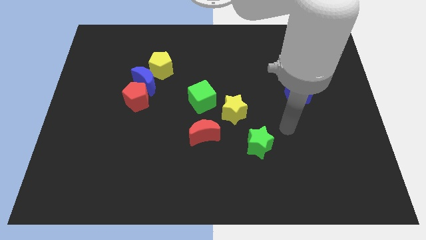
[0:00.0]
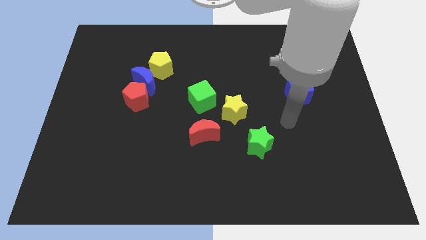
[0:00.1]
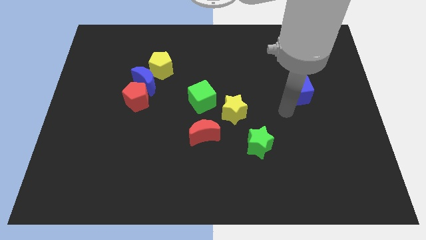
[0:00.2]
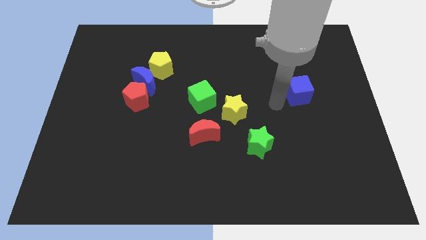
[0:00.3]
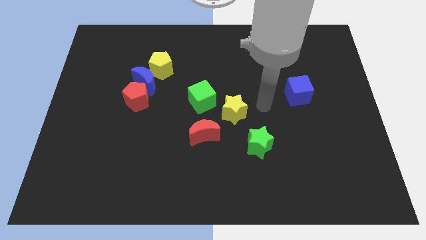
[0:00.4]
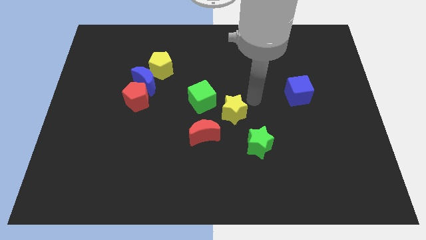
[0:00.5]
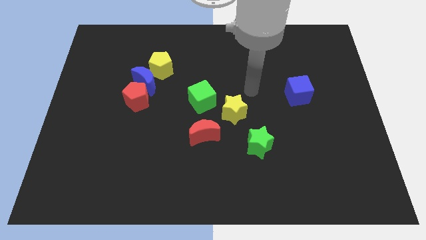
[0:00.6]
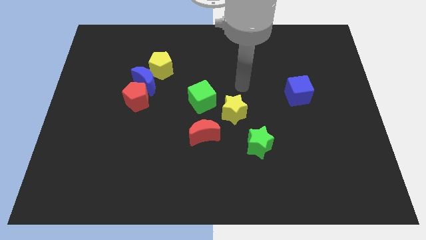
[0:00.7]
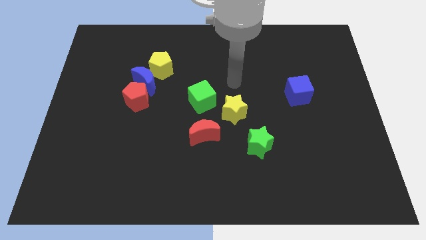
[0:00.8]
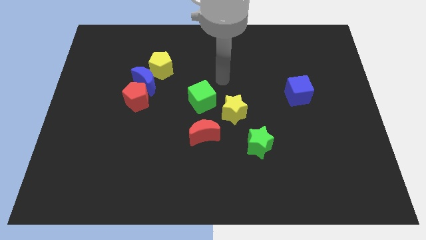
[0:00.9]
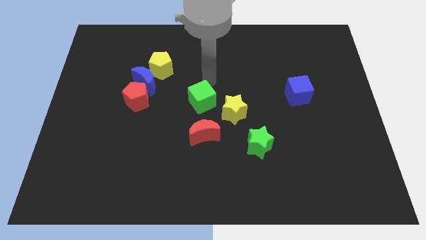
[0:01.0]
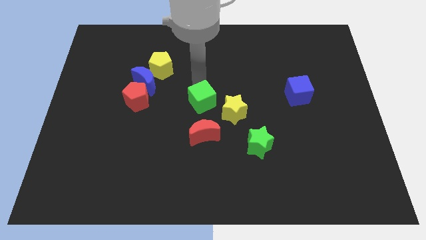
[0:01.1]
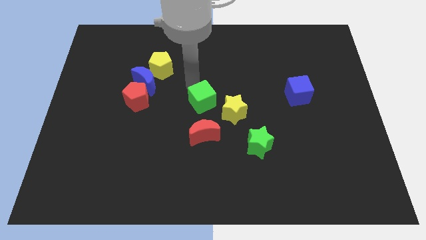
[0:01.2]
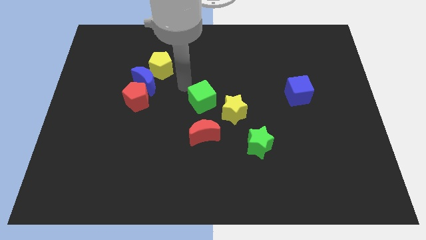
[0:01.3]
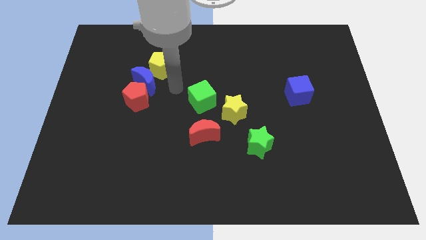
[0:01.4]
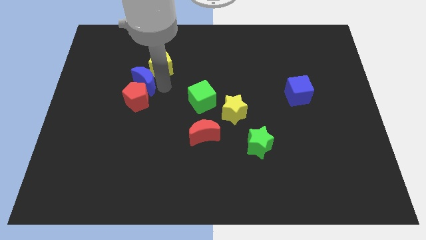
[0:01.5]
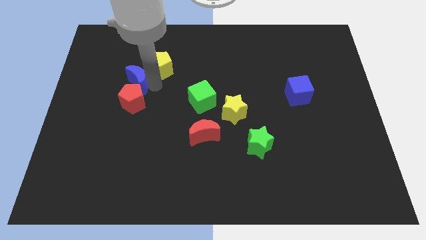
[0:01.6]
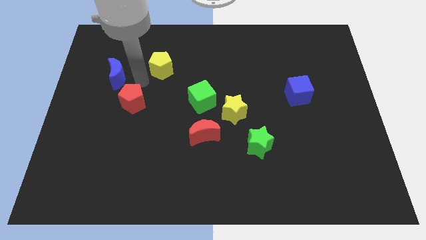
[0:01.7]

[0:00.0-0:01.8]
move the red pentagon away from the blue moon

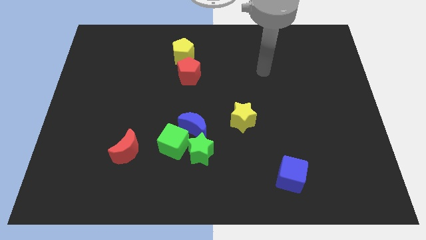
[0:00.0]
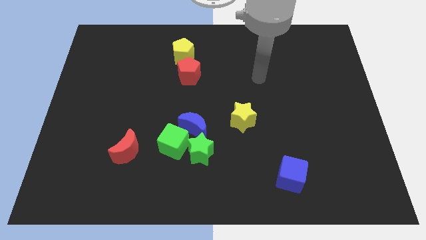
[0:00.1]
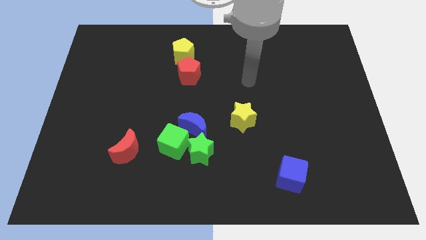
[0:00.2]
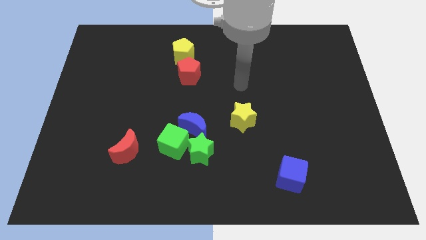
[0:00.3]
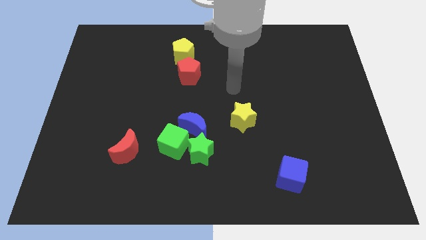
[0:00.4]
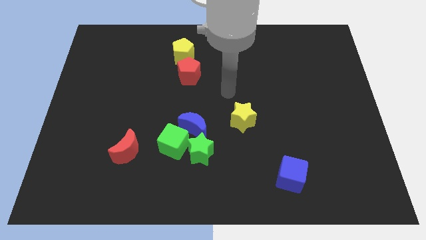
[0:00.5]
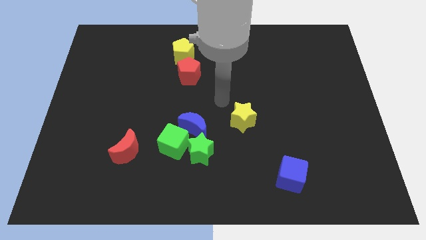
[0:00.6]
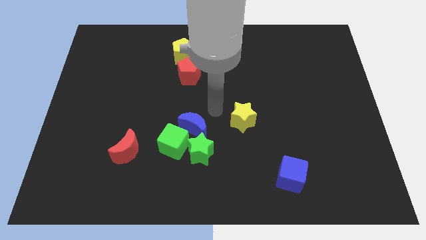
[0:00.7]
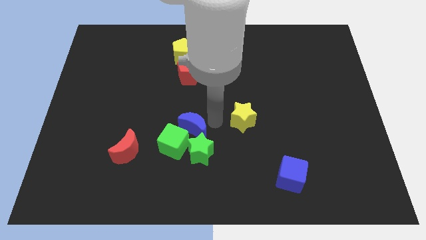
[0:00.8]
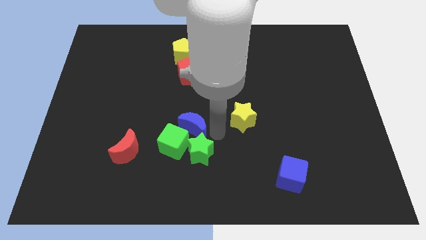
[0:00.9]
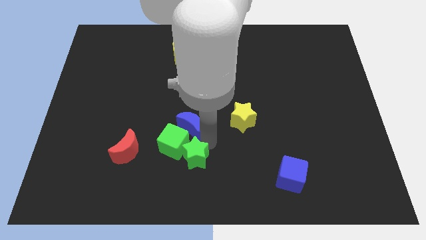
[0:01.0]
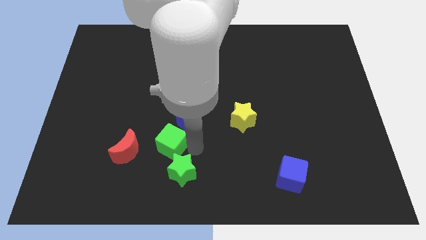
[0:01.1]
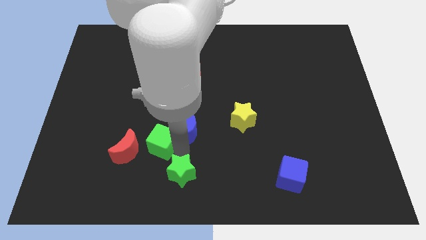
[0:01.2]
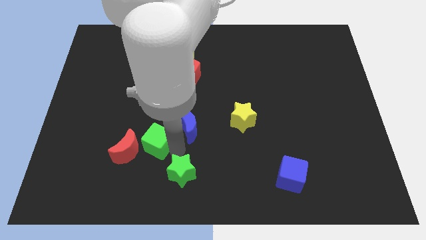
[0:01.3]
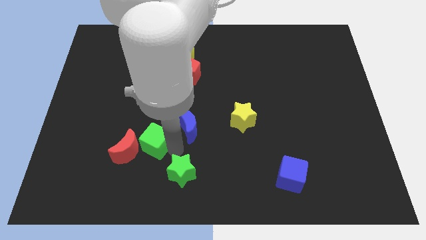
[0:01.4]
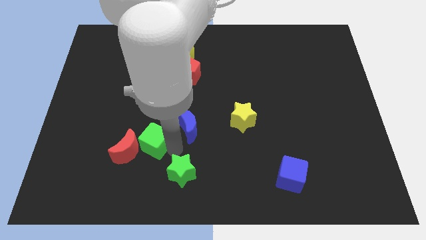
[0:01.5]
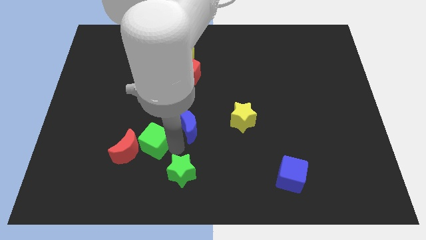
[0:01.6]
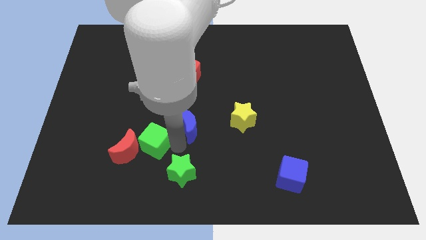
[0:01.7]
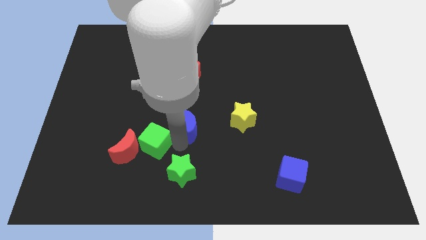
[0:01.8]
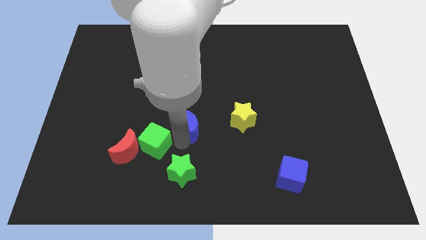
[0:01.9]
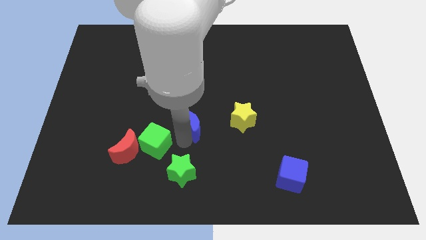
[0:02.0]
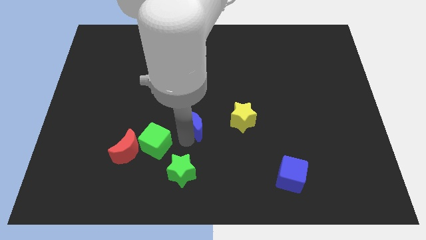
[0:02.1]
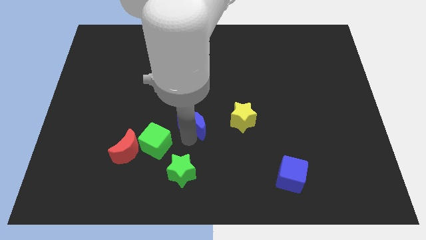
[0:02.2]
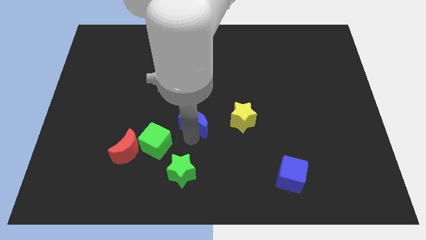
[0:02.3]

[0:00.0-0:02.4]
separate the blue moon from the green cube and green star

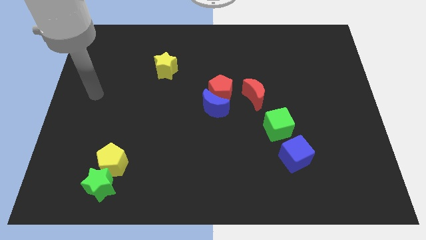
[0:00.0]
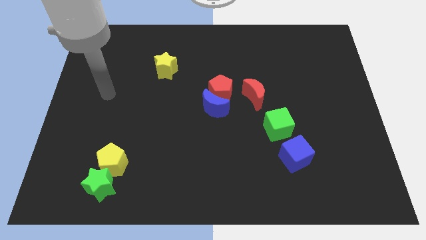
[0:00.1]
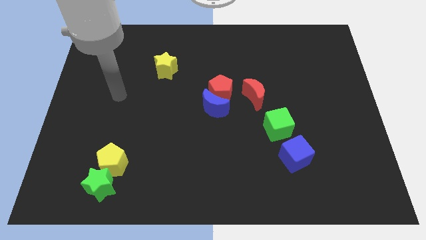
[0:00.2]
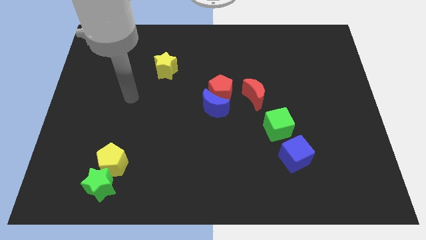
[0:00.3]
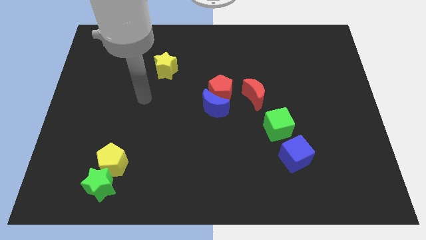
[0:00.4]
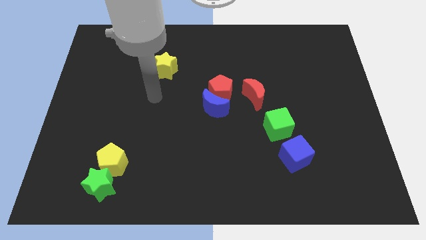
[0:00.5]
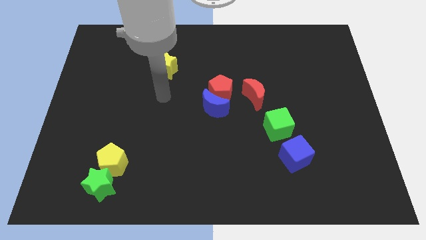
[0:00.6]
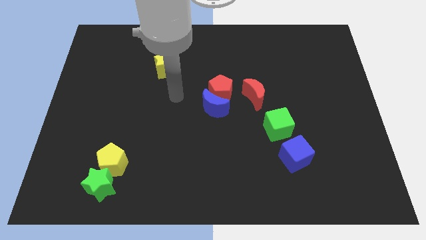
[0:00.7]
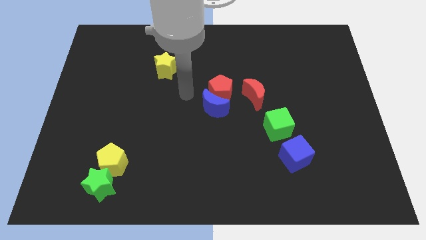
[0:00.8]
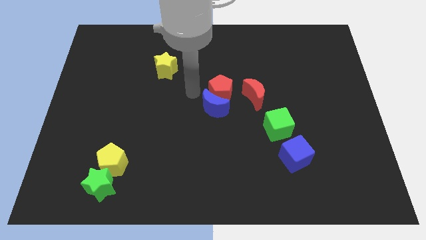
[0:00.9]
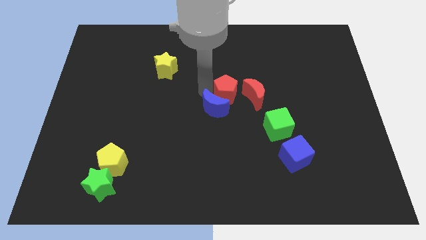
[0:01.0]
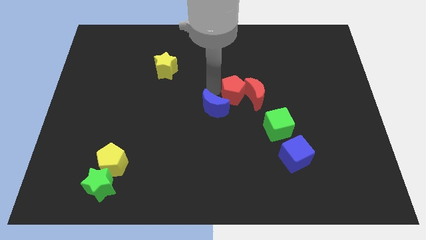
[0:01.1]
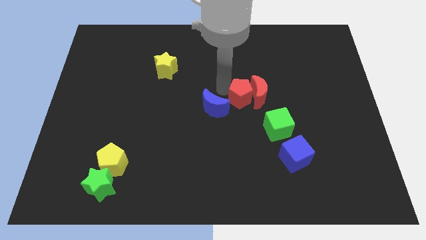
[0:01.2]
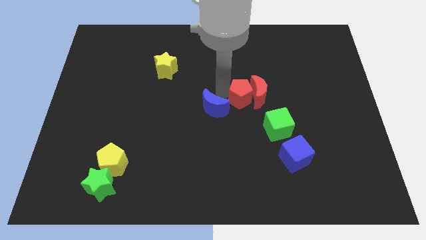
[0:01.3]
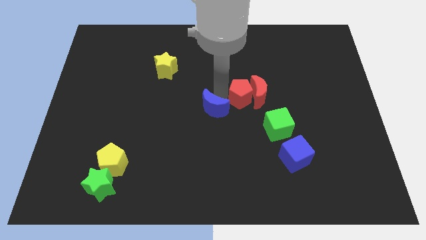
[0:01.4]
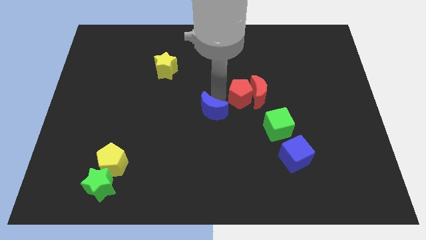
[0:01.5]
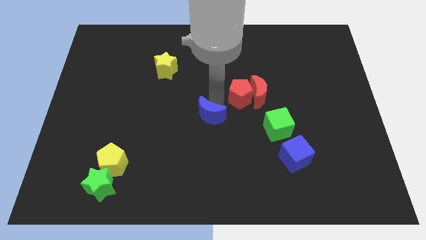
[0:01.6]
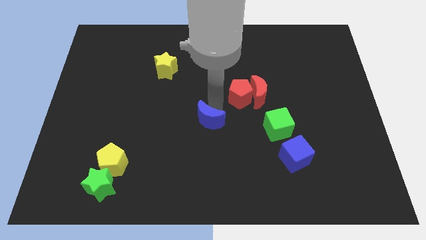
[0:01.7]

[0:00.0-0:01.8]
separate the blue moon from the red pentagon

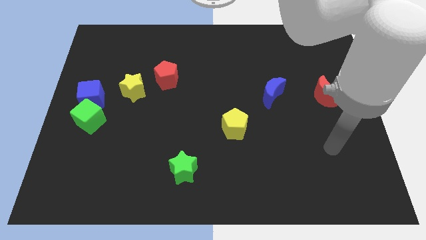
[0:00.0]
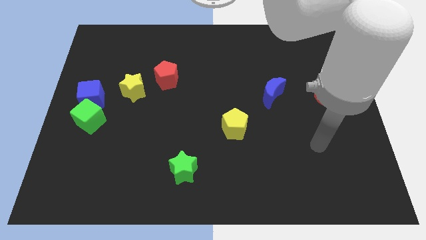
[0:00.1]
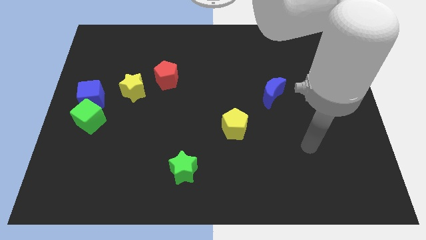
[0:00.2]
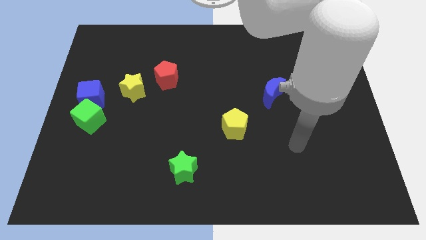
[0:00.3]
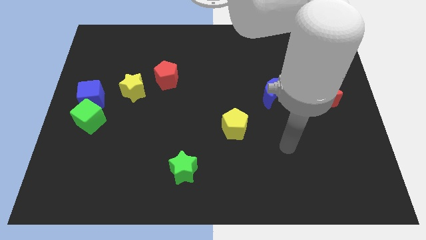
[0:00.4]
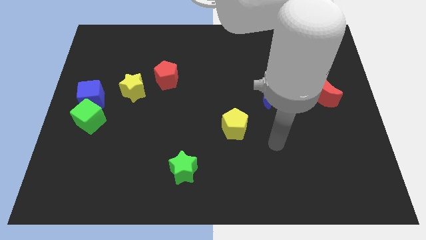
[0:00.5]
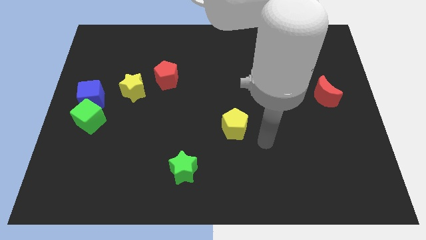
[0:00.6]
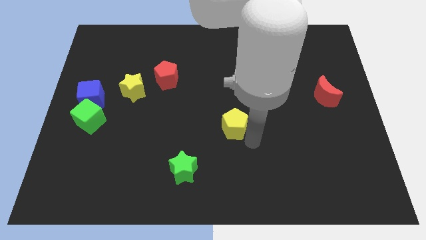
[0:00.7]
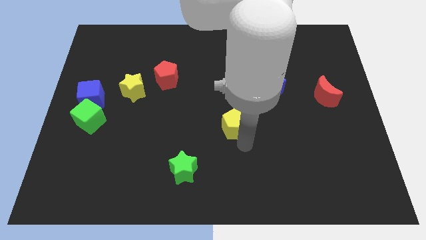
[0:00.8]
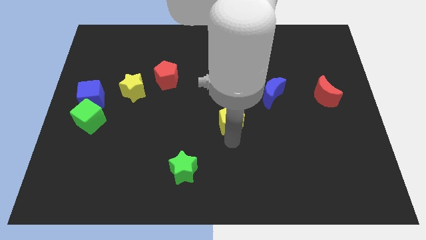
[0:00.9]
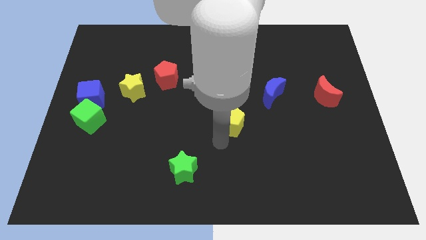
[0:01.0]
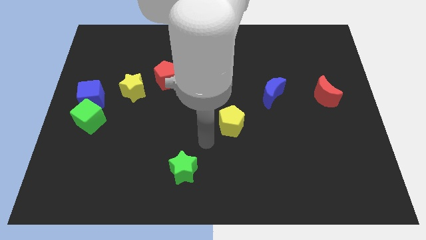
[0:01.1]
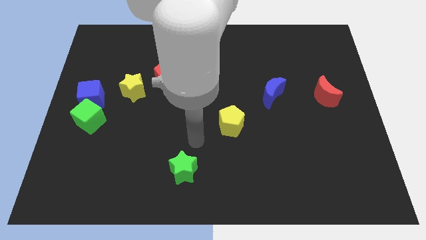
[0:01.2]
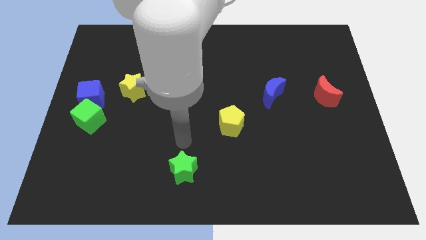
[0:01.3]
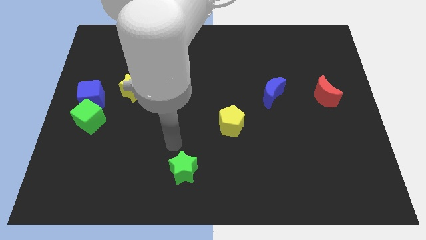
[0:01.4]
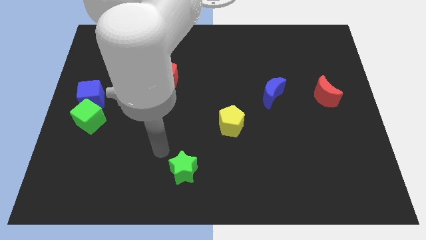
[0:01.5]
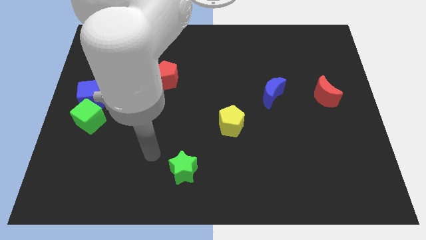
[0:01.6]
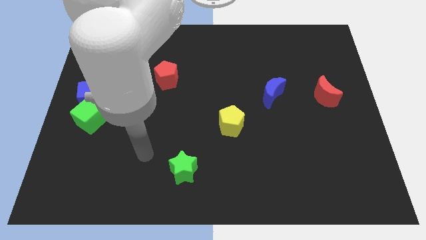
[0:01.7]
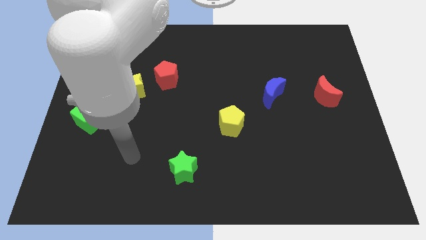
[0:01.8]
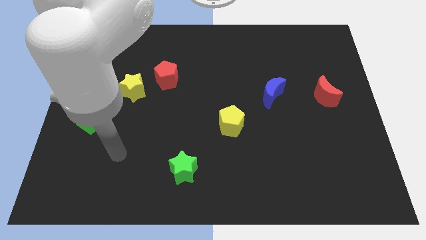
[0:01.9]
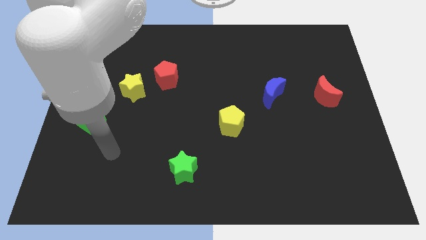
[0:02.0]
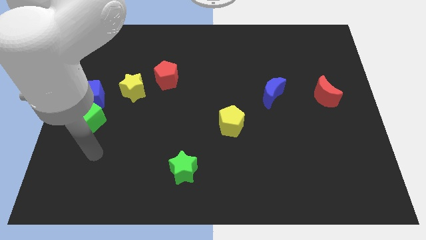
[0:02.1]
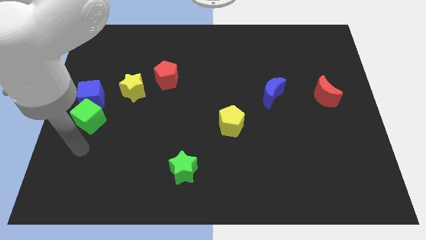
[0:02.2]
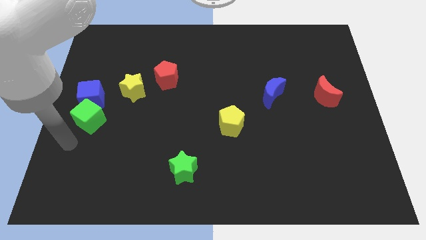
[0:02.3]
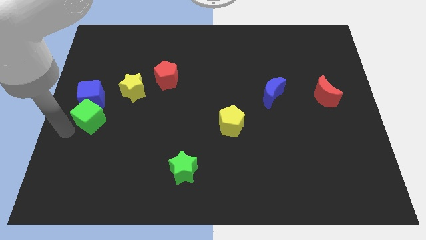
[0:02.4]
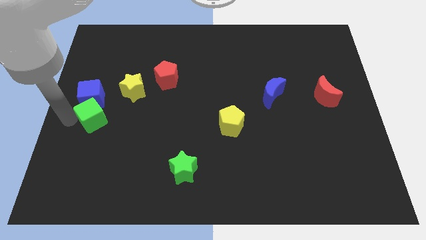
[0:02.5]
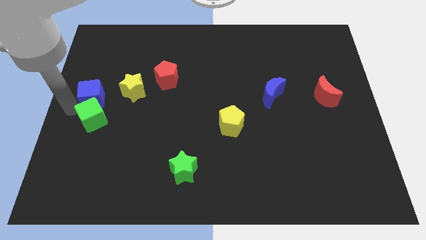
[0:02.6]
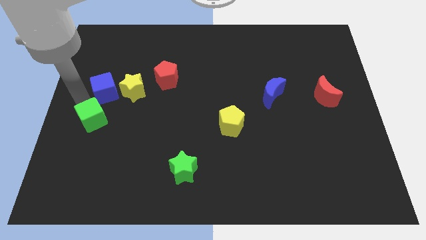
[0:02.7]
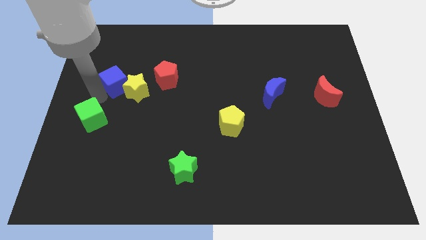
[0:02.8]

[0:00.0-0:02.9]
pull the green cube apart from the blue cube

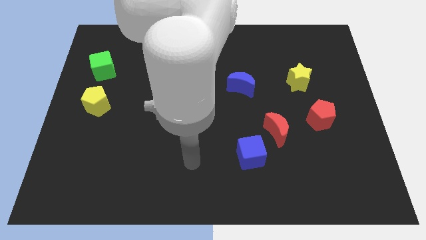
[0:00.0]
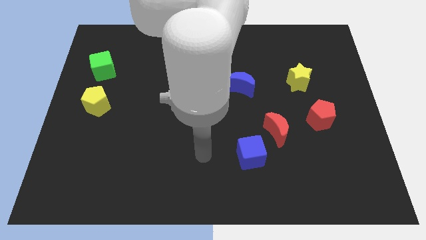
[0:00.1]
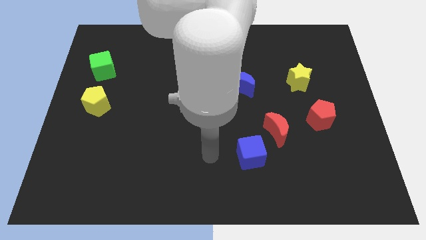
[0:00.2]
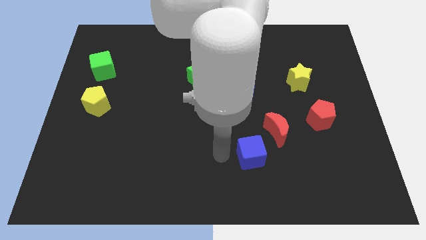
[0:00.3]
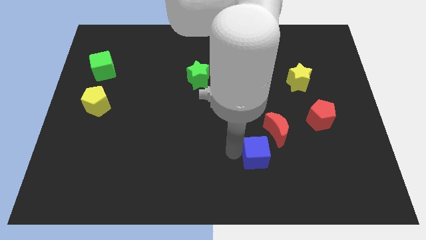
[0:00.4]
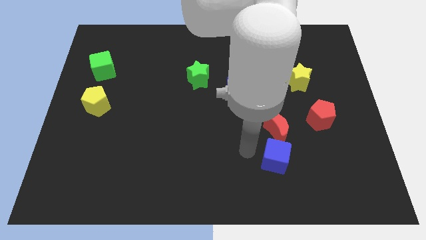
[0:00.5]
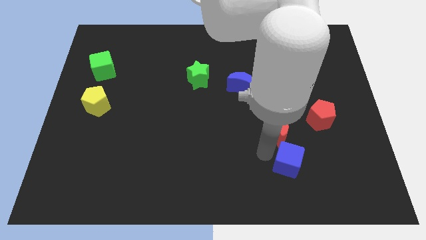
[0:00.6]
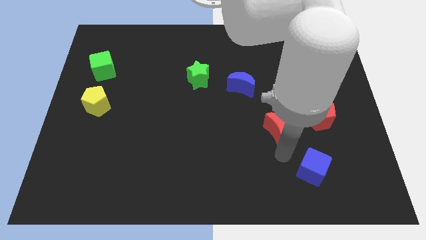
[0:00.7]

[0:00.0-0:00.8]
move the red moon away from the blue cube
